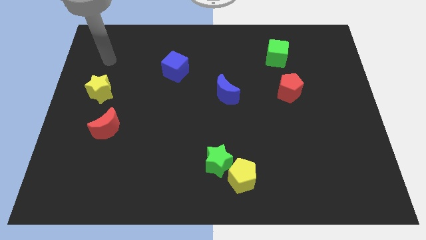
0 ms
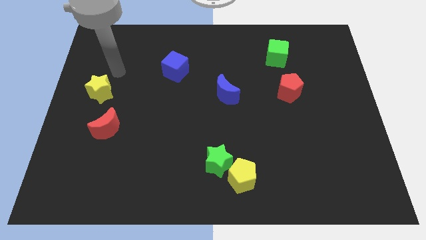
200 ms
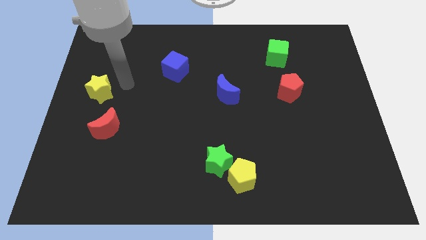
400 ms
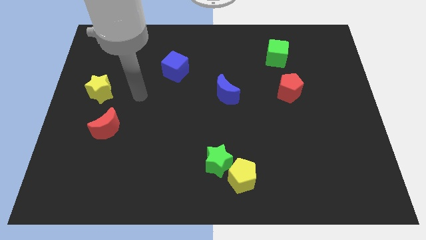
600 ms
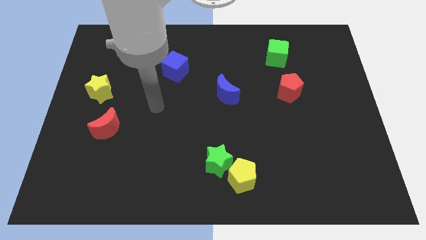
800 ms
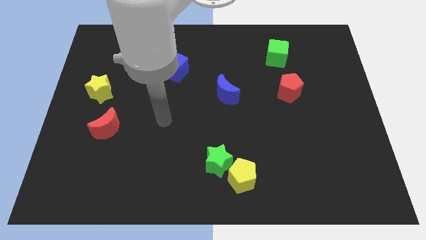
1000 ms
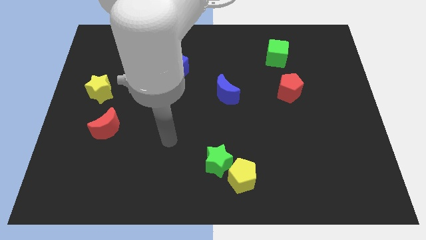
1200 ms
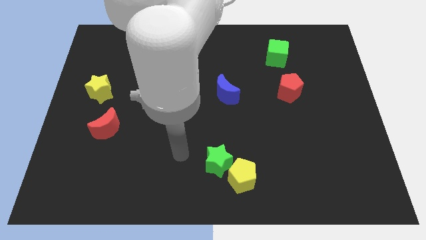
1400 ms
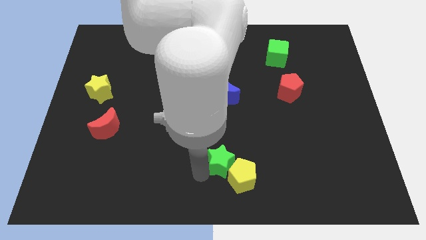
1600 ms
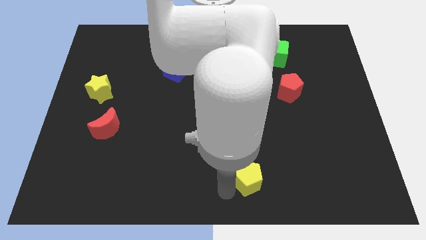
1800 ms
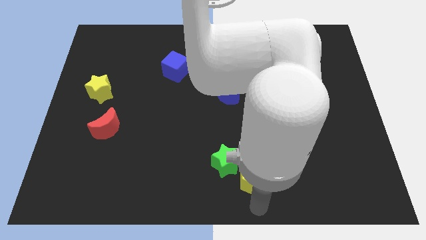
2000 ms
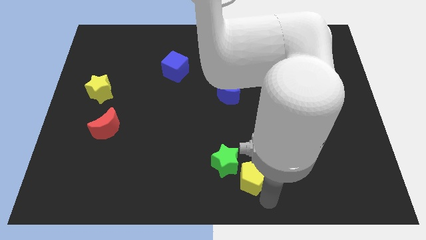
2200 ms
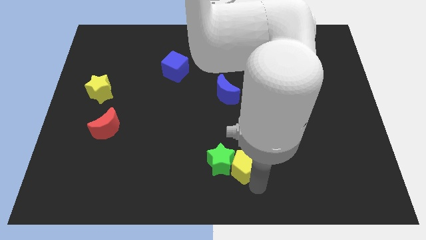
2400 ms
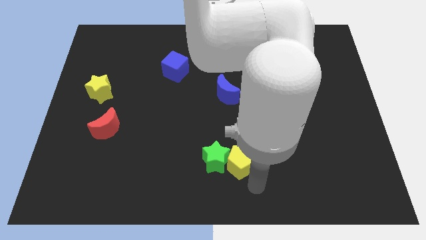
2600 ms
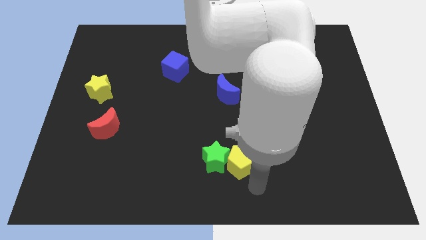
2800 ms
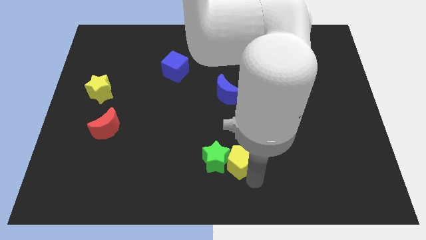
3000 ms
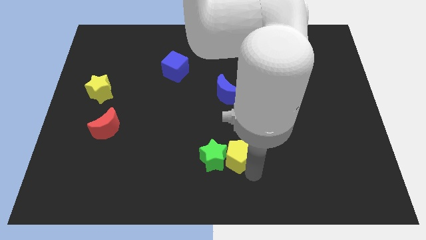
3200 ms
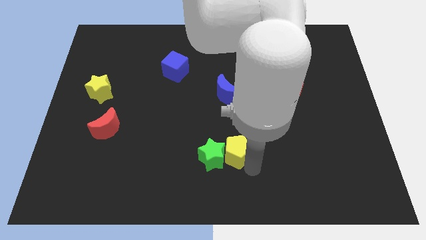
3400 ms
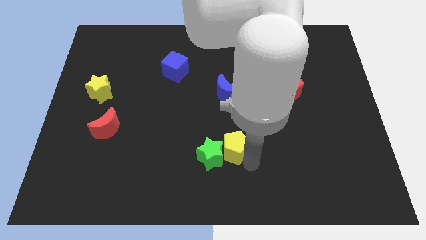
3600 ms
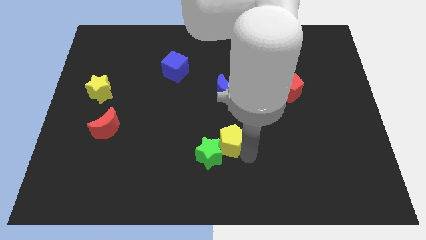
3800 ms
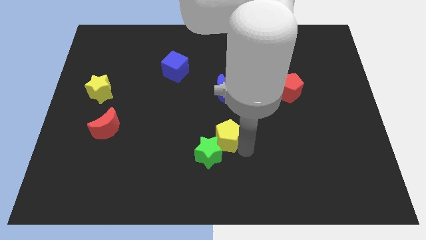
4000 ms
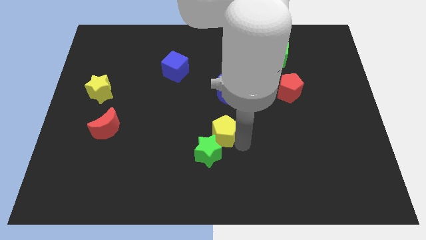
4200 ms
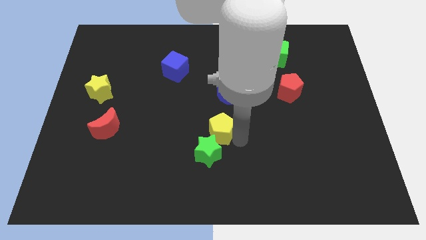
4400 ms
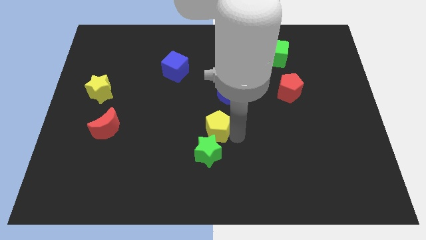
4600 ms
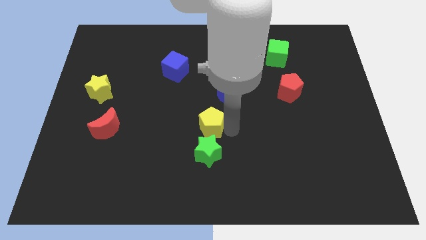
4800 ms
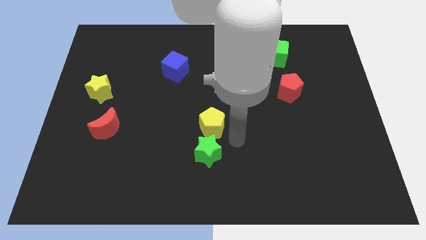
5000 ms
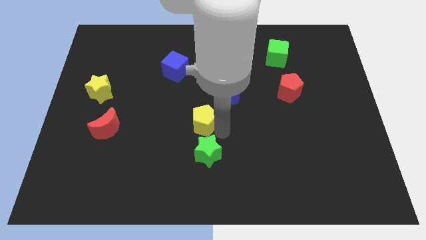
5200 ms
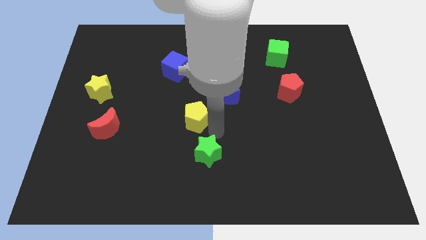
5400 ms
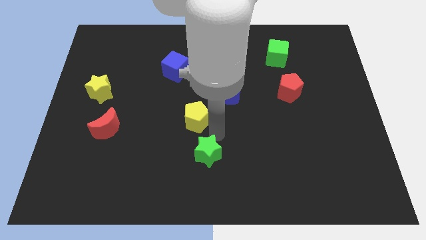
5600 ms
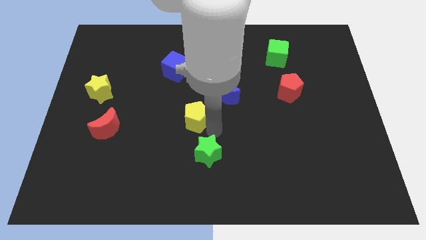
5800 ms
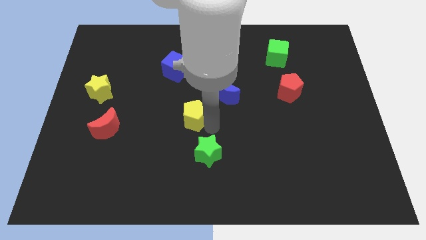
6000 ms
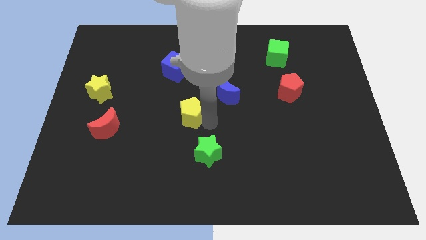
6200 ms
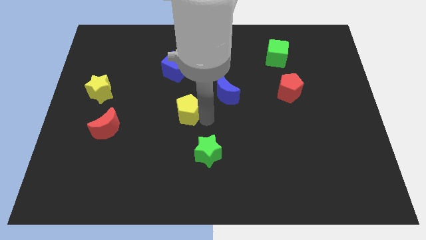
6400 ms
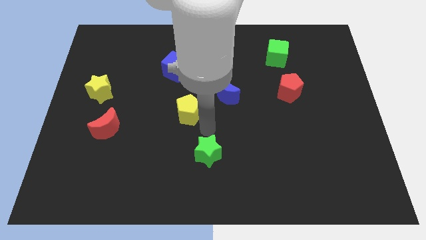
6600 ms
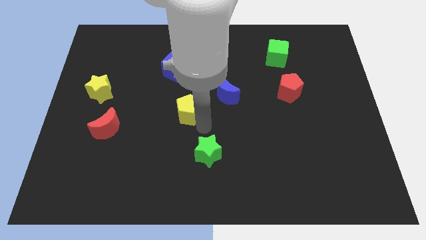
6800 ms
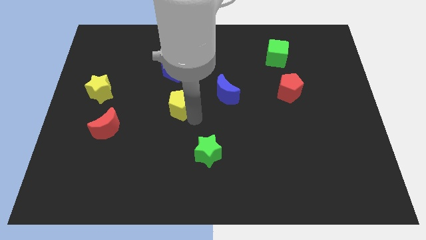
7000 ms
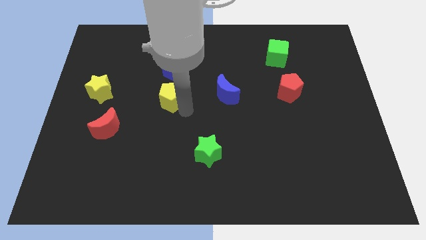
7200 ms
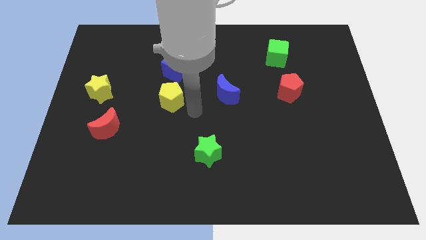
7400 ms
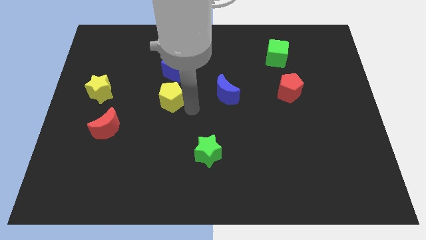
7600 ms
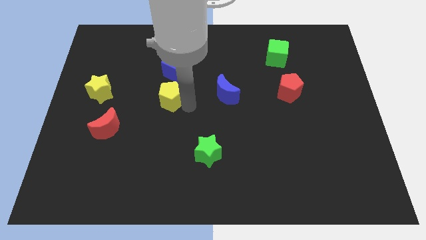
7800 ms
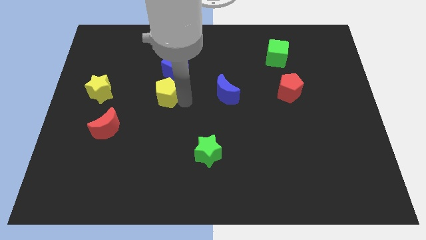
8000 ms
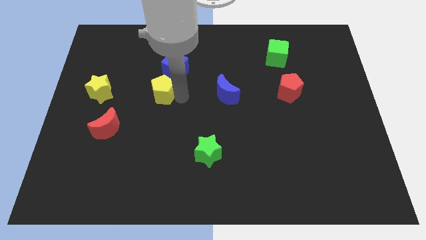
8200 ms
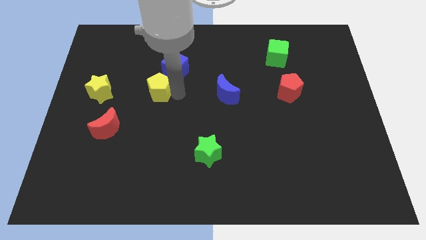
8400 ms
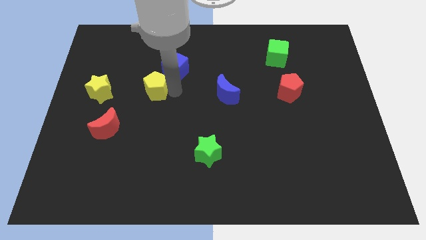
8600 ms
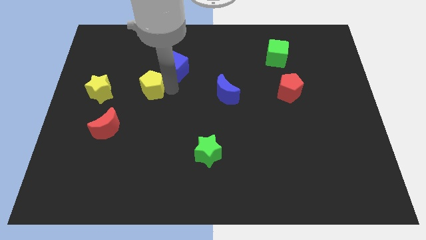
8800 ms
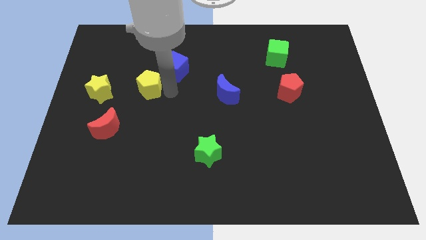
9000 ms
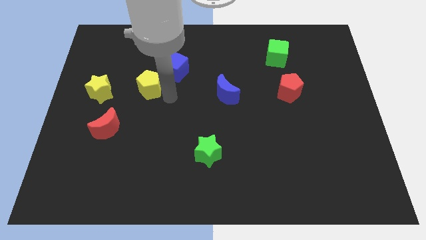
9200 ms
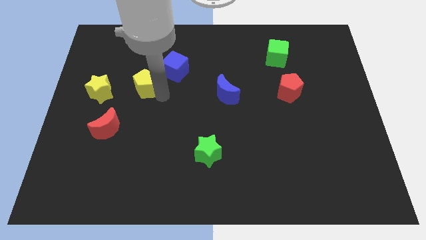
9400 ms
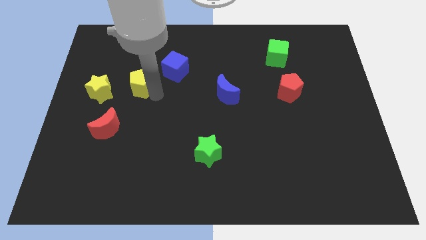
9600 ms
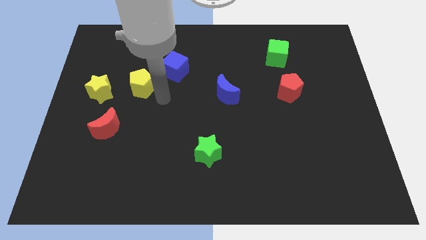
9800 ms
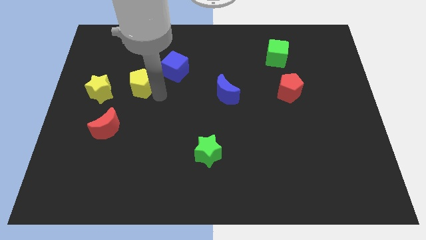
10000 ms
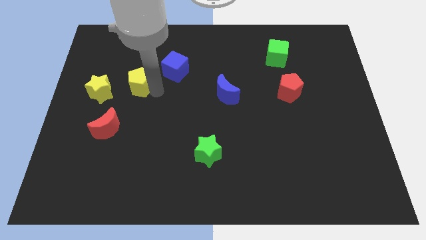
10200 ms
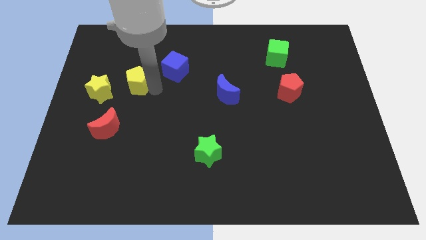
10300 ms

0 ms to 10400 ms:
slide the yellow pentagon diagonally up and to the right of the yellow star

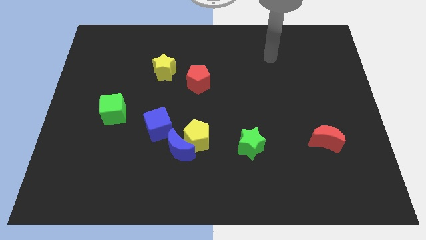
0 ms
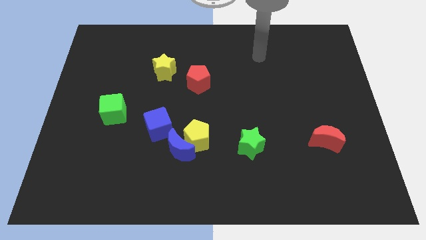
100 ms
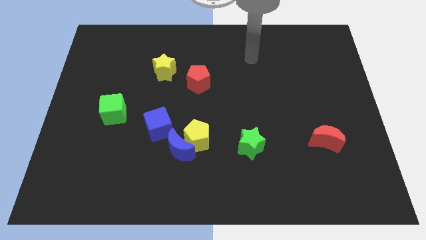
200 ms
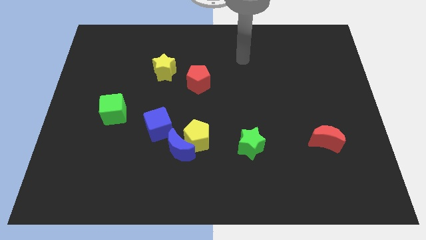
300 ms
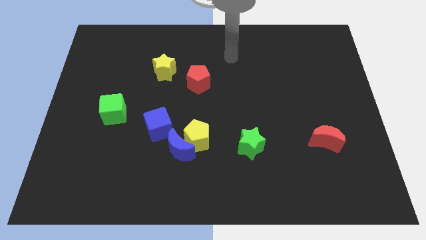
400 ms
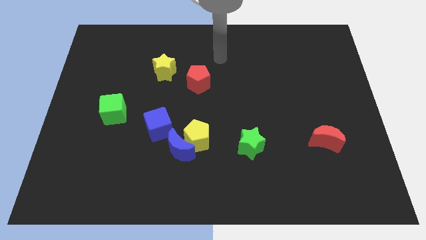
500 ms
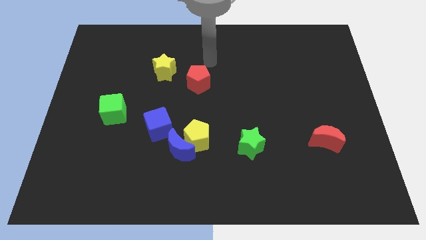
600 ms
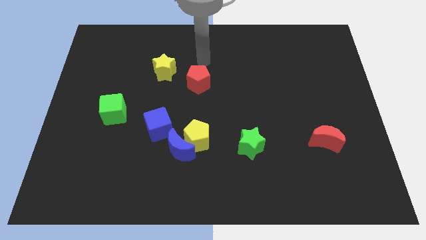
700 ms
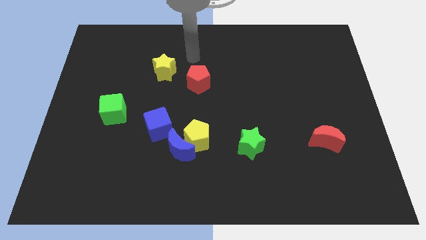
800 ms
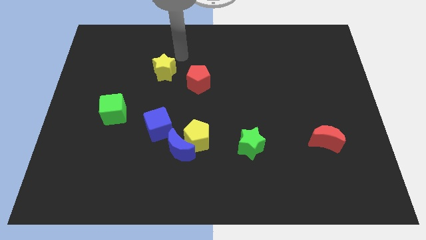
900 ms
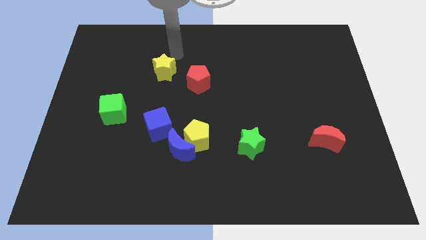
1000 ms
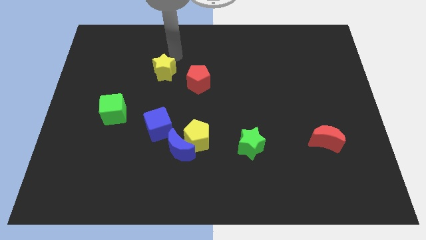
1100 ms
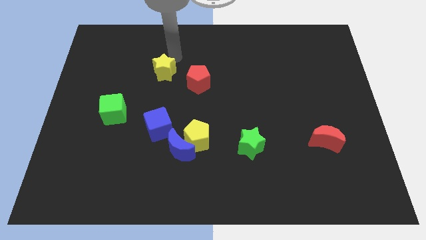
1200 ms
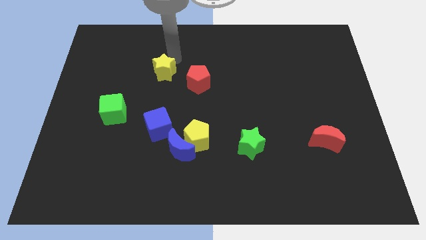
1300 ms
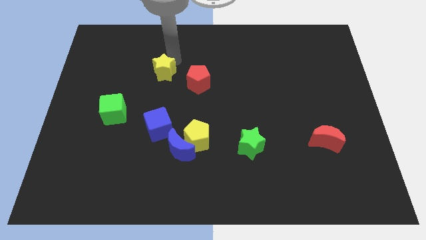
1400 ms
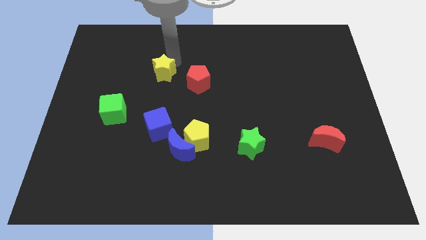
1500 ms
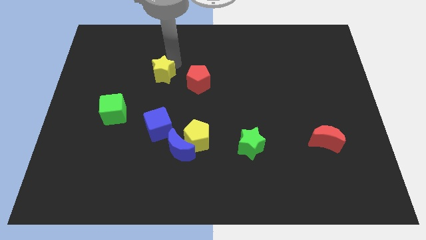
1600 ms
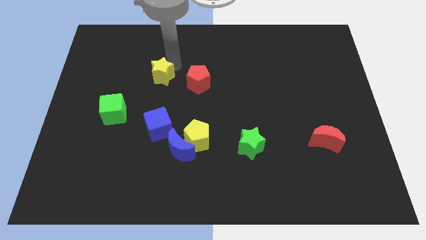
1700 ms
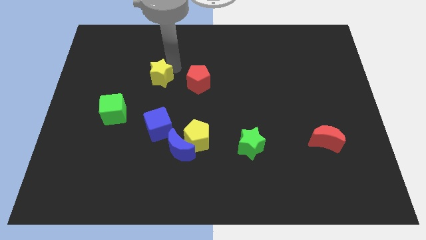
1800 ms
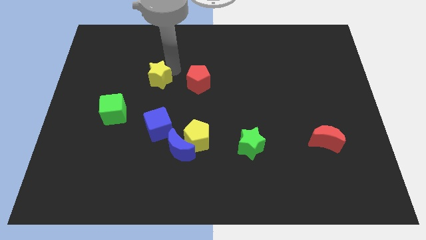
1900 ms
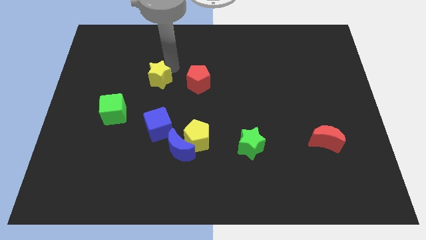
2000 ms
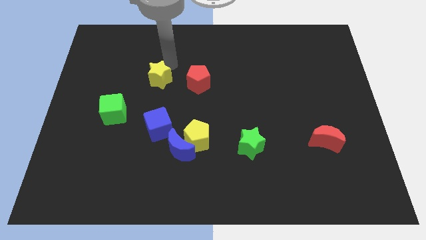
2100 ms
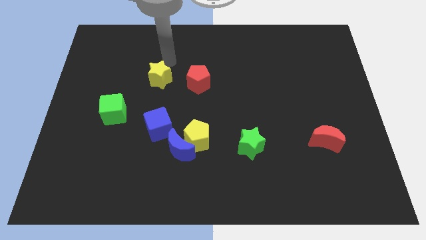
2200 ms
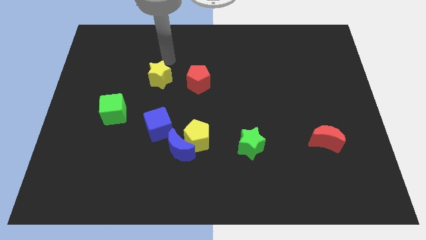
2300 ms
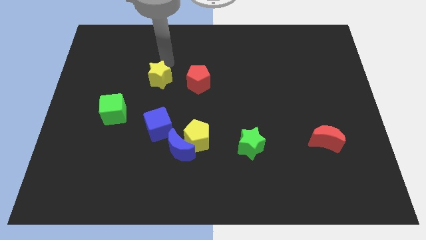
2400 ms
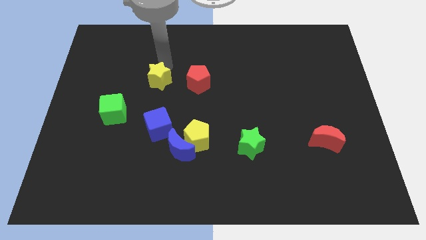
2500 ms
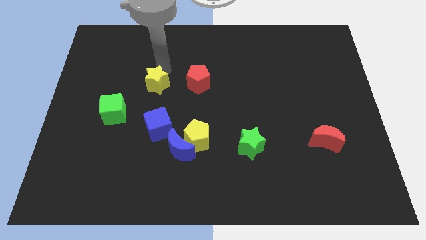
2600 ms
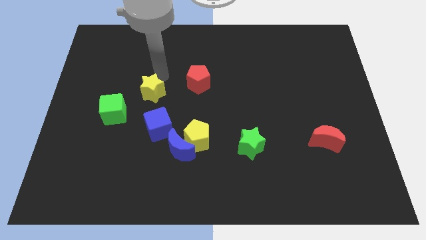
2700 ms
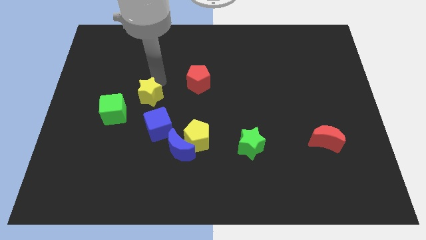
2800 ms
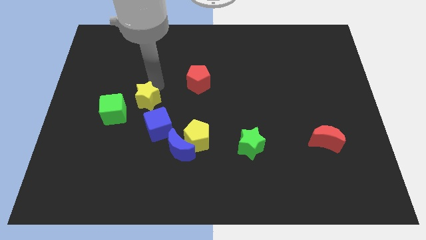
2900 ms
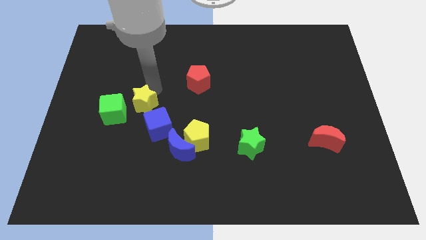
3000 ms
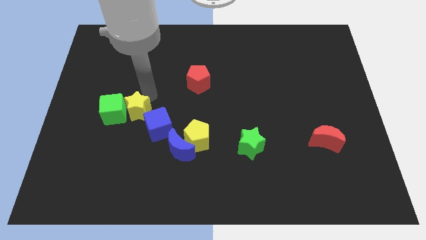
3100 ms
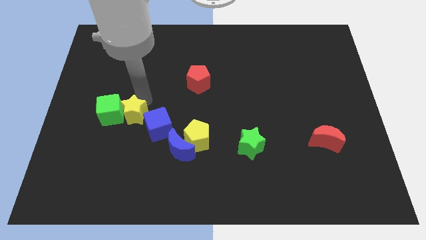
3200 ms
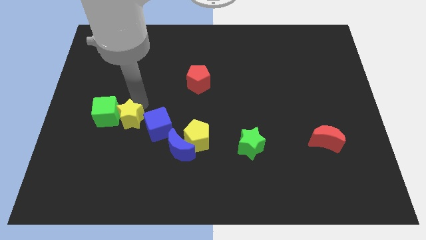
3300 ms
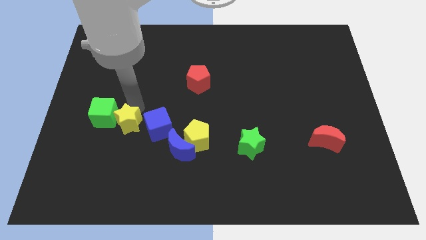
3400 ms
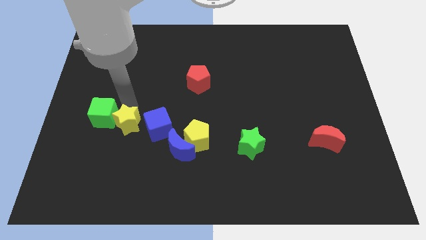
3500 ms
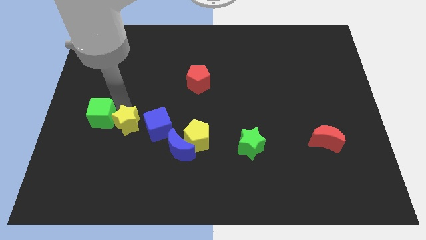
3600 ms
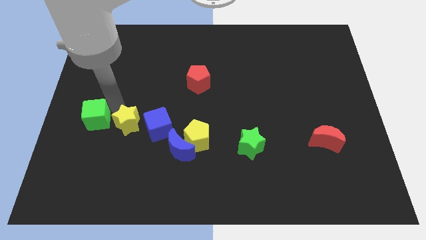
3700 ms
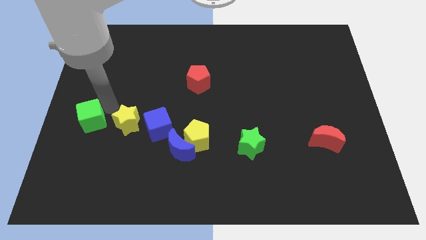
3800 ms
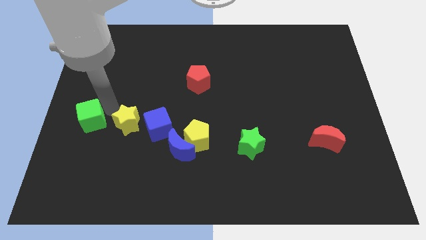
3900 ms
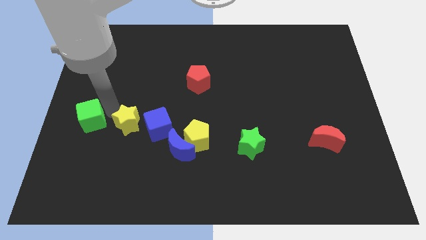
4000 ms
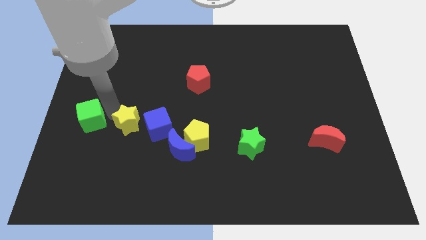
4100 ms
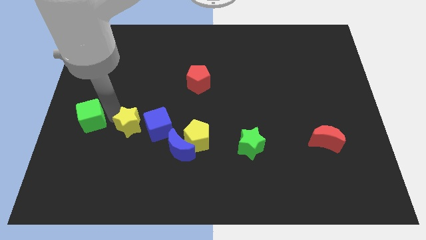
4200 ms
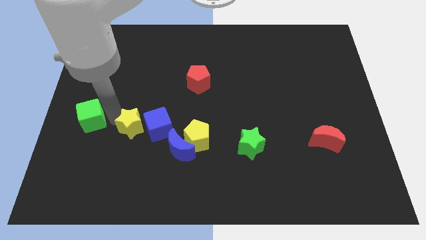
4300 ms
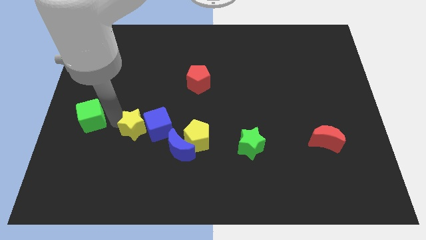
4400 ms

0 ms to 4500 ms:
push the yellow star just left of the yellow pentagon
